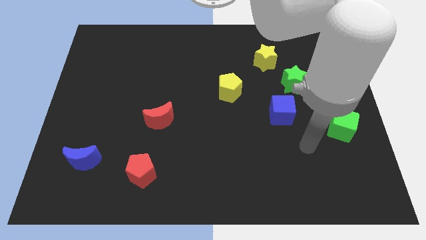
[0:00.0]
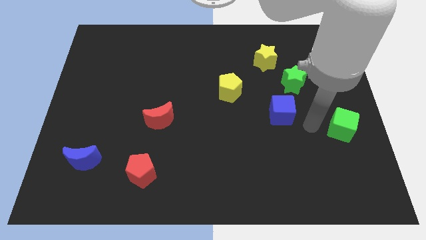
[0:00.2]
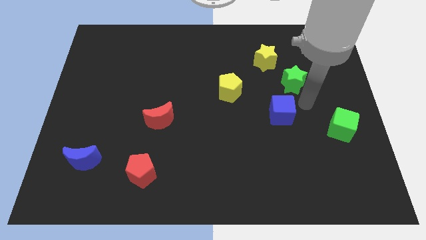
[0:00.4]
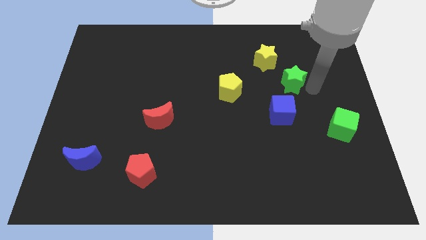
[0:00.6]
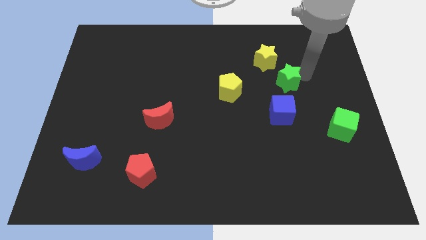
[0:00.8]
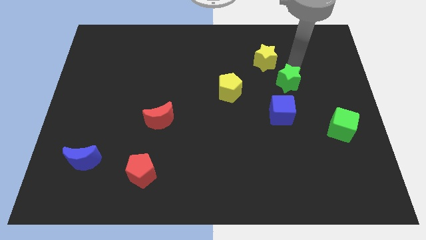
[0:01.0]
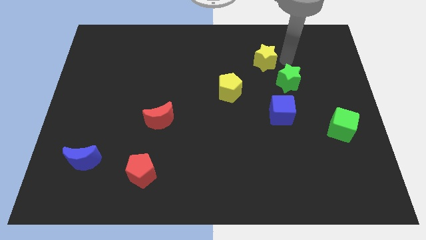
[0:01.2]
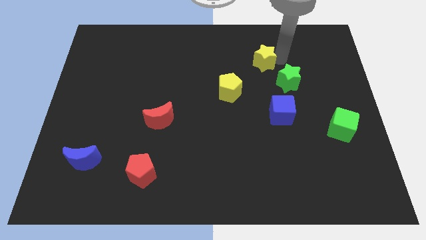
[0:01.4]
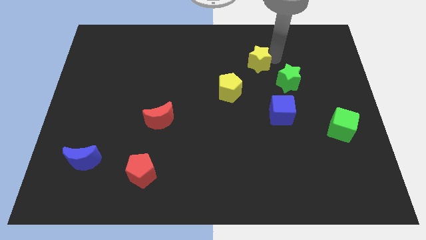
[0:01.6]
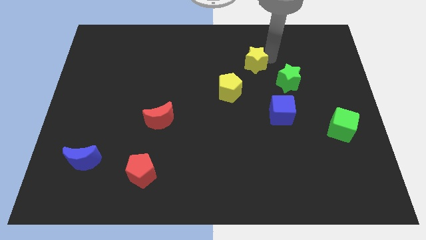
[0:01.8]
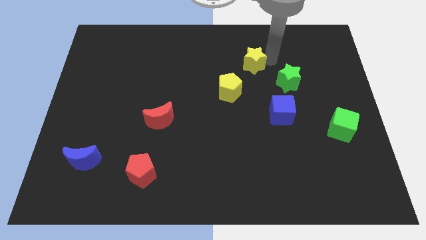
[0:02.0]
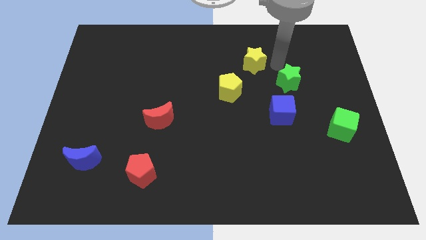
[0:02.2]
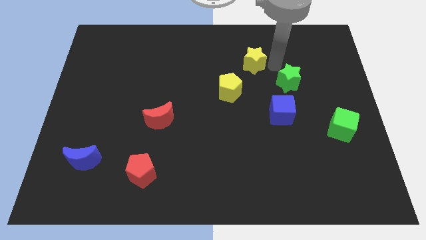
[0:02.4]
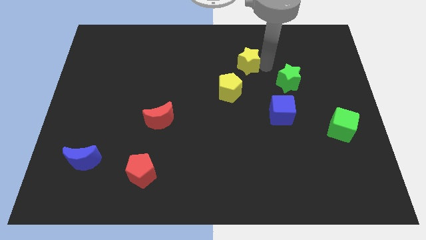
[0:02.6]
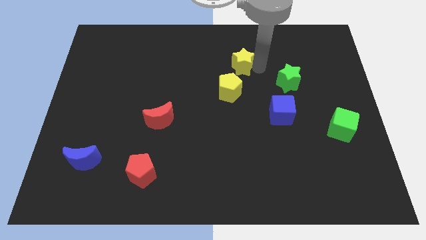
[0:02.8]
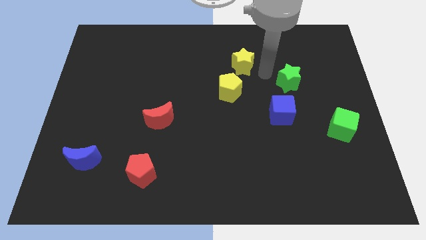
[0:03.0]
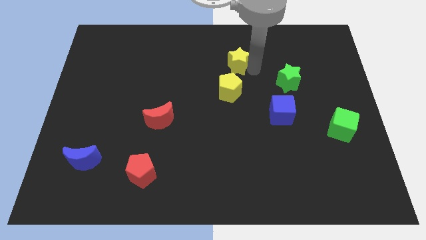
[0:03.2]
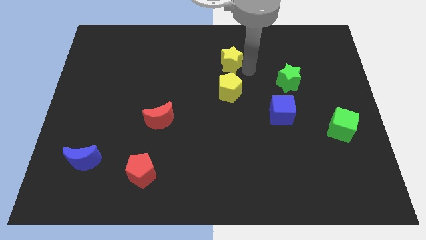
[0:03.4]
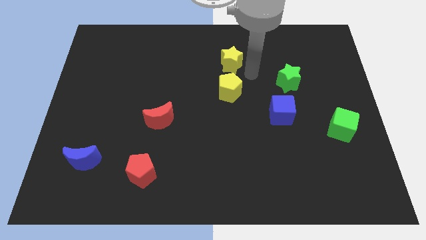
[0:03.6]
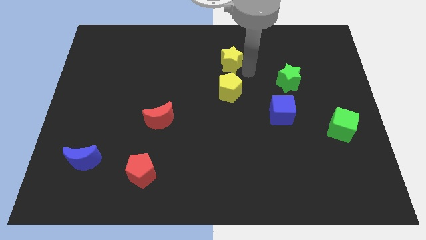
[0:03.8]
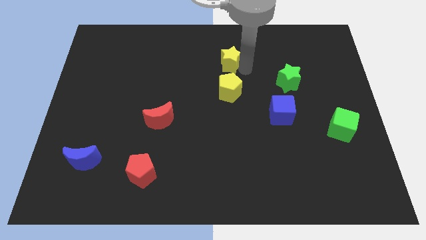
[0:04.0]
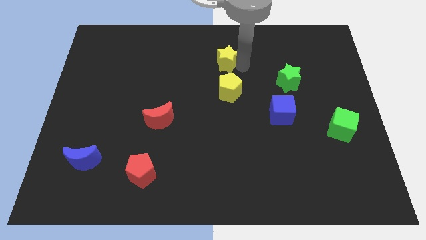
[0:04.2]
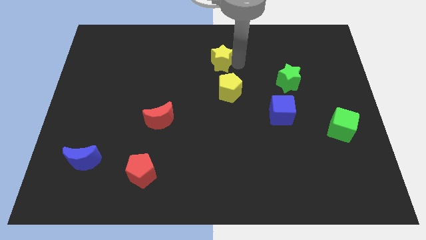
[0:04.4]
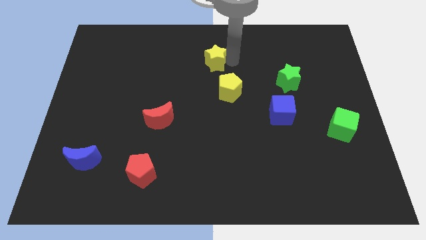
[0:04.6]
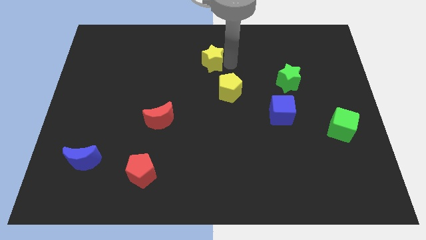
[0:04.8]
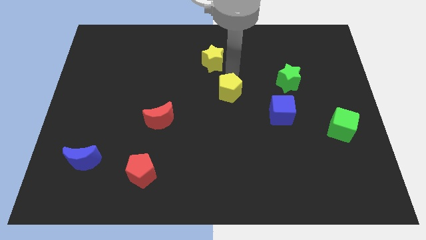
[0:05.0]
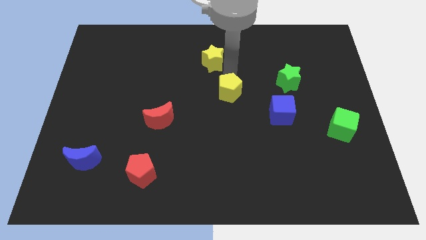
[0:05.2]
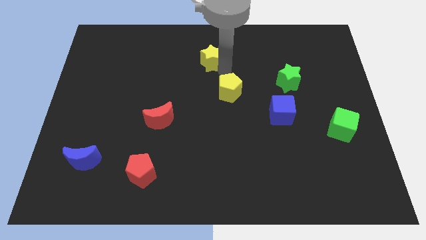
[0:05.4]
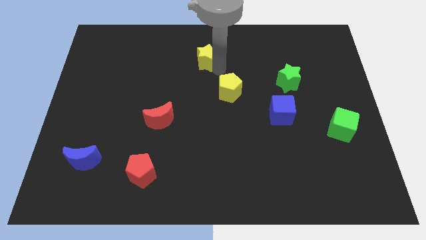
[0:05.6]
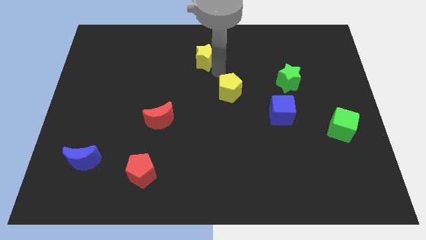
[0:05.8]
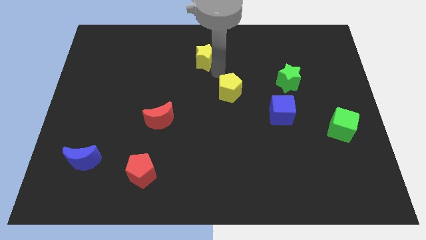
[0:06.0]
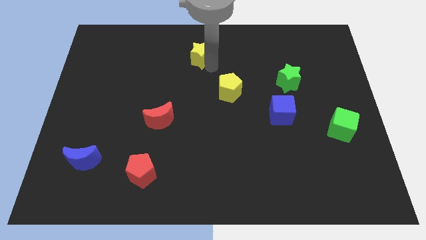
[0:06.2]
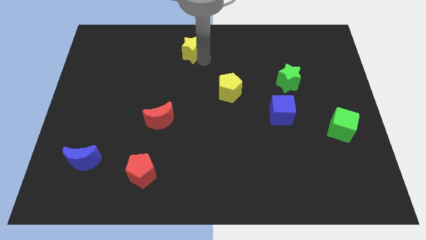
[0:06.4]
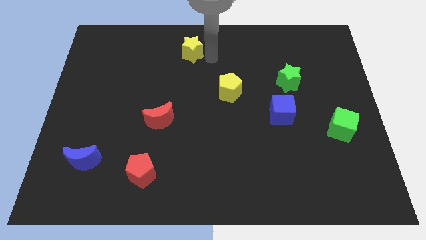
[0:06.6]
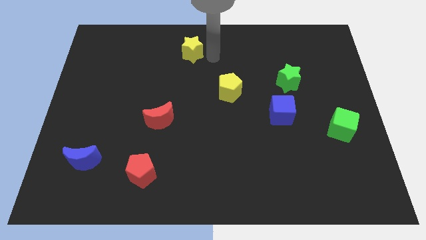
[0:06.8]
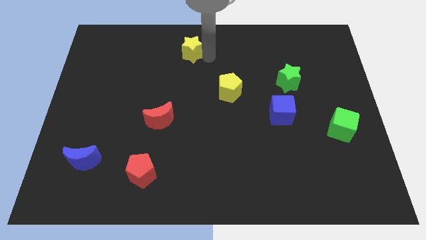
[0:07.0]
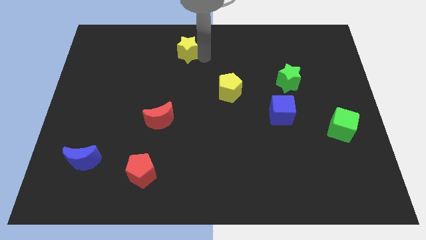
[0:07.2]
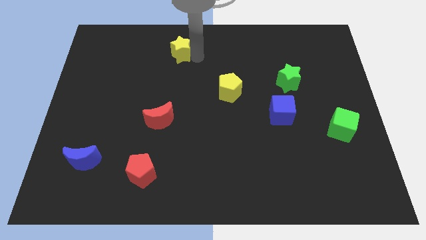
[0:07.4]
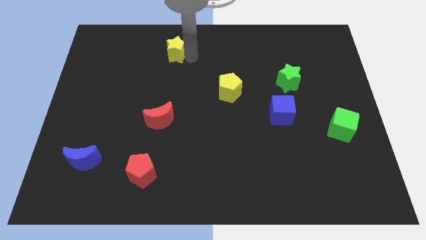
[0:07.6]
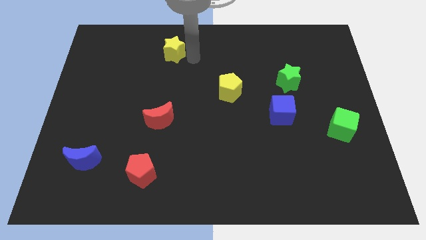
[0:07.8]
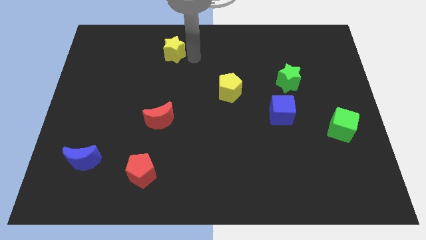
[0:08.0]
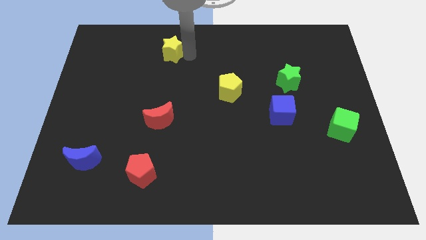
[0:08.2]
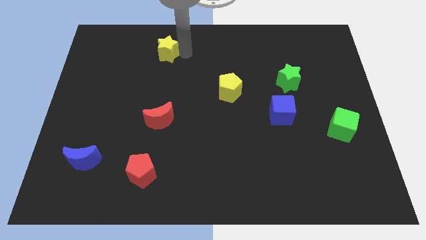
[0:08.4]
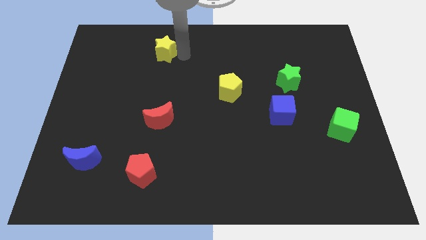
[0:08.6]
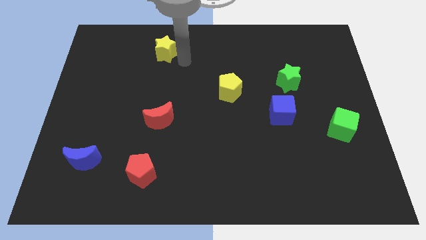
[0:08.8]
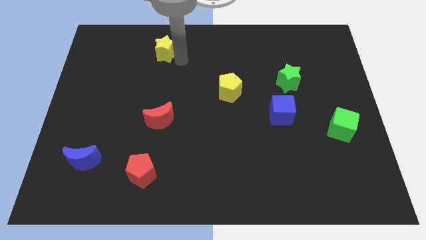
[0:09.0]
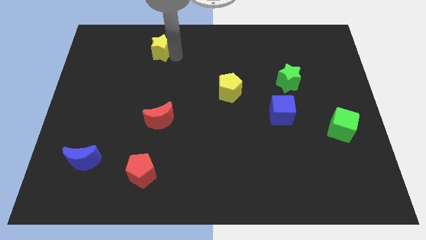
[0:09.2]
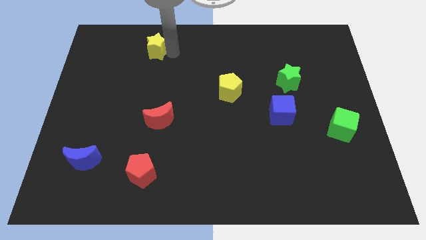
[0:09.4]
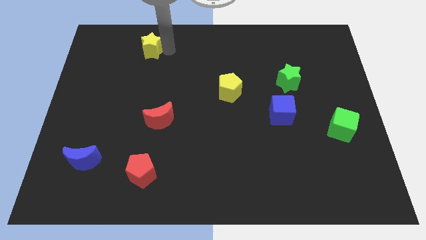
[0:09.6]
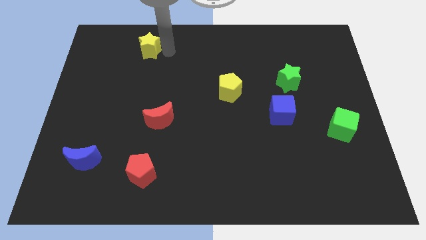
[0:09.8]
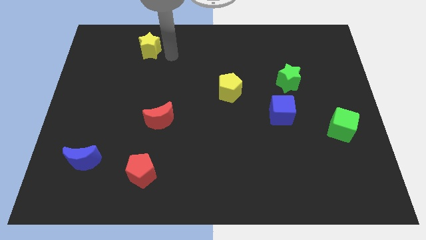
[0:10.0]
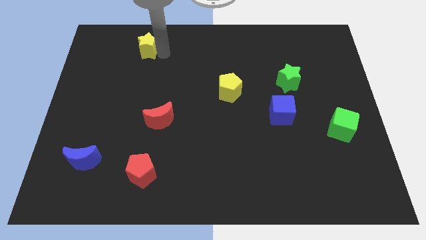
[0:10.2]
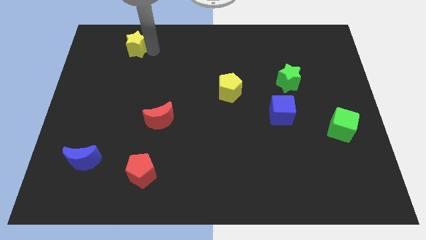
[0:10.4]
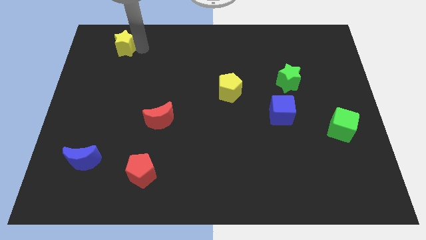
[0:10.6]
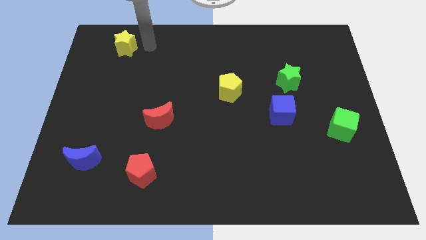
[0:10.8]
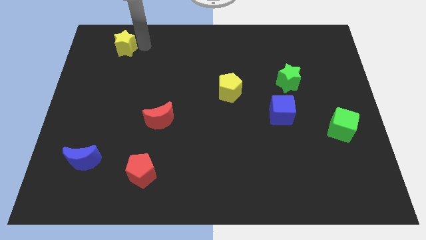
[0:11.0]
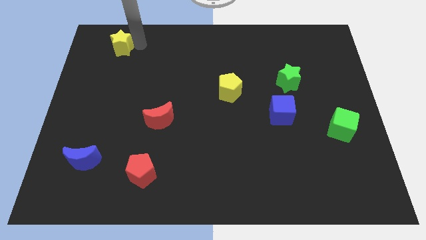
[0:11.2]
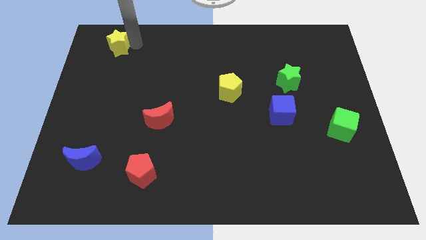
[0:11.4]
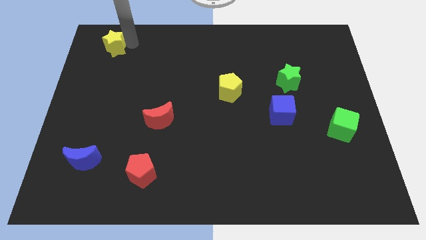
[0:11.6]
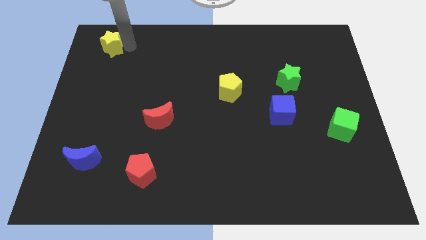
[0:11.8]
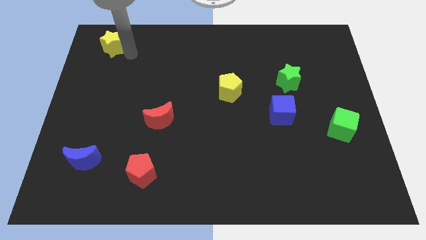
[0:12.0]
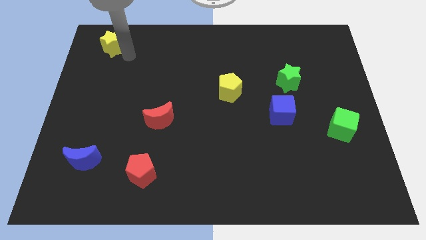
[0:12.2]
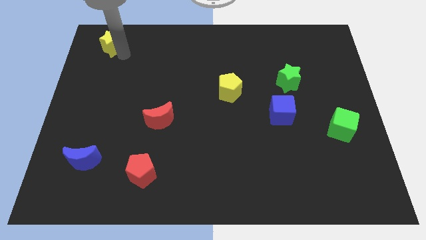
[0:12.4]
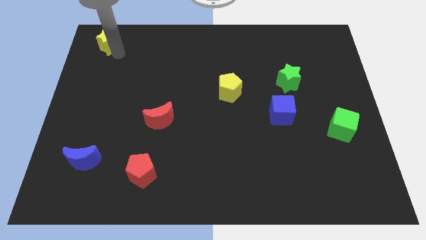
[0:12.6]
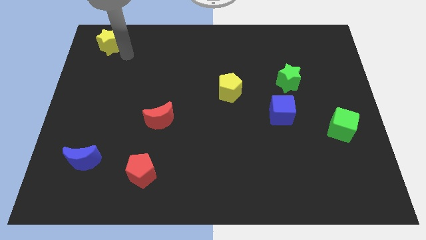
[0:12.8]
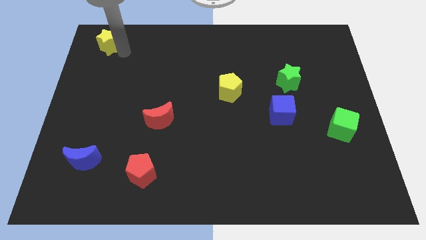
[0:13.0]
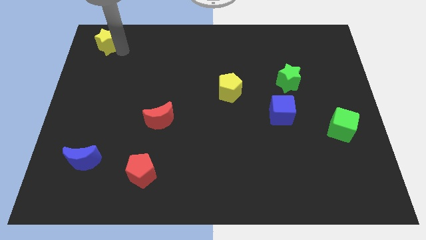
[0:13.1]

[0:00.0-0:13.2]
put the yellow star to the upper left corner
